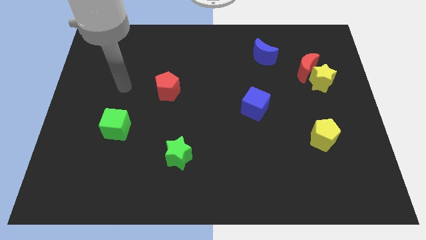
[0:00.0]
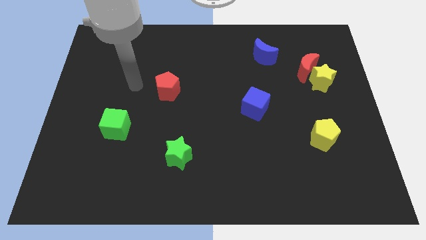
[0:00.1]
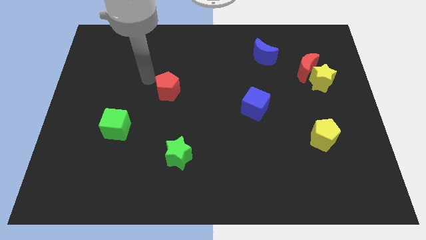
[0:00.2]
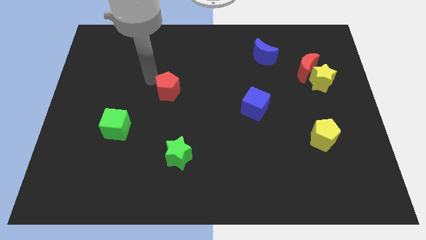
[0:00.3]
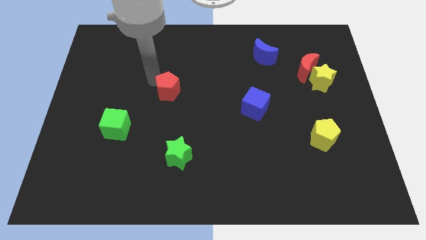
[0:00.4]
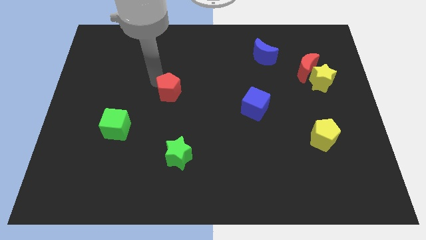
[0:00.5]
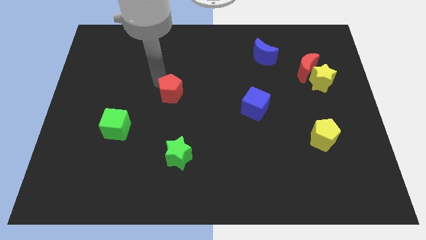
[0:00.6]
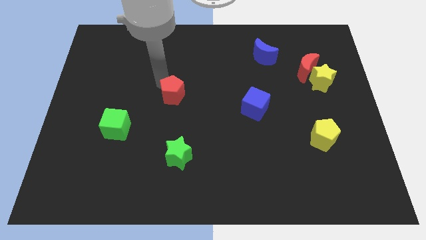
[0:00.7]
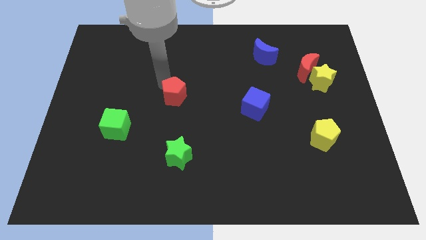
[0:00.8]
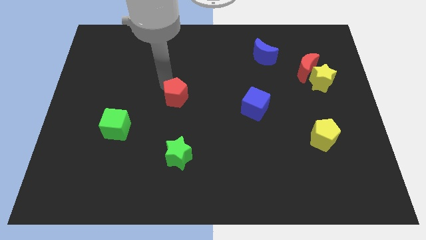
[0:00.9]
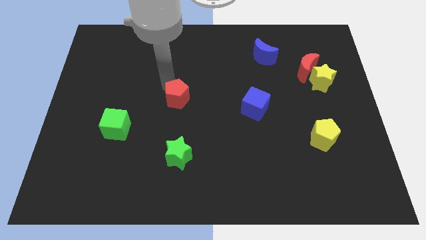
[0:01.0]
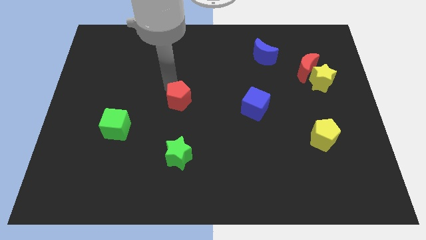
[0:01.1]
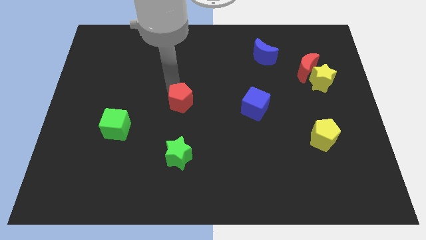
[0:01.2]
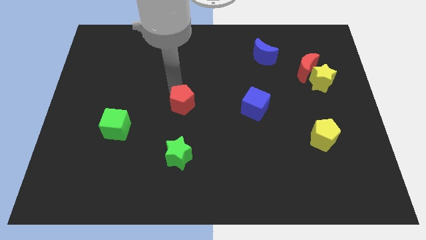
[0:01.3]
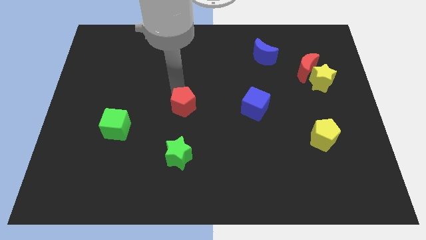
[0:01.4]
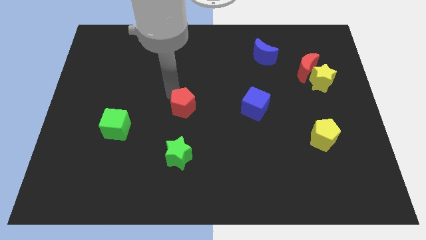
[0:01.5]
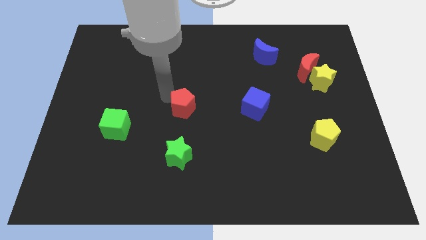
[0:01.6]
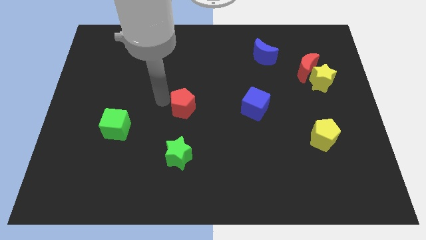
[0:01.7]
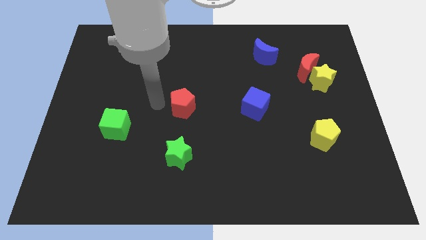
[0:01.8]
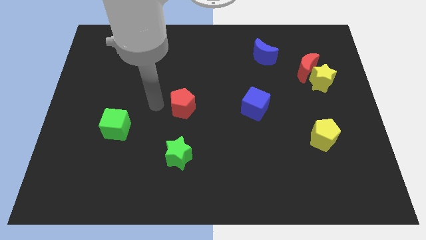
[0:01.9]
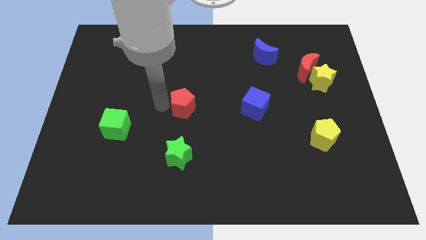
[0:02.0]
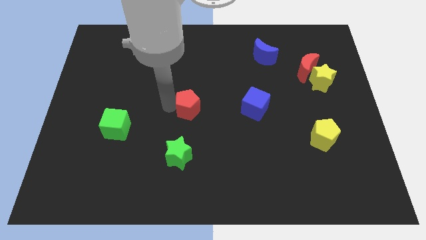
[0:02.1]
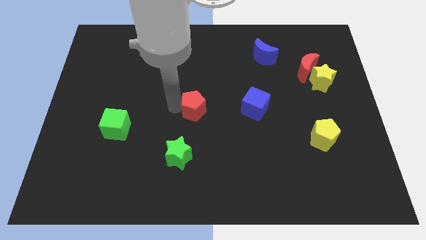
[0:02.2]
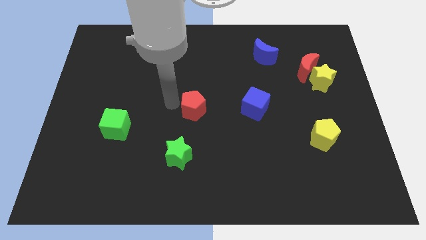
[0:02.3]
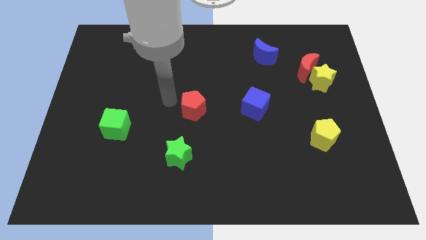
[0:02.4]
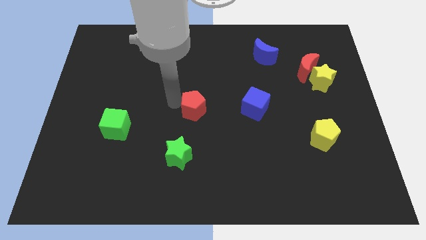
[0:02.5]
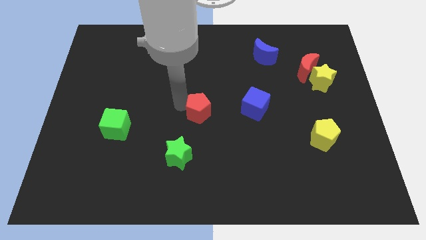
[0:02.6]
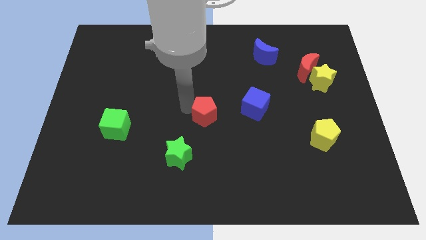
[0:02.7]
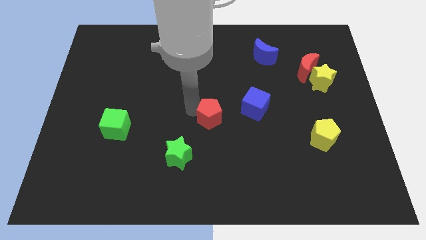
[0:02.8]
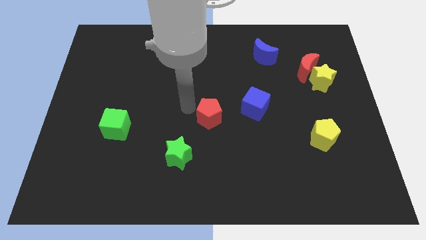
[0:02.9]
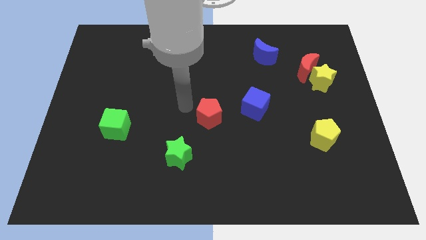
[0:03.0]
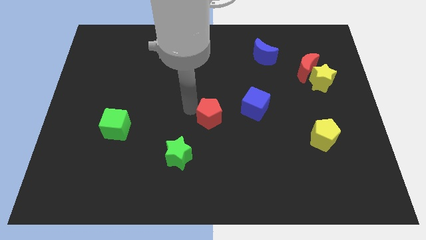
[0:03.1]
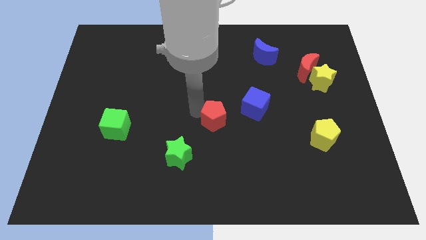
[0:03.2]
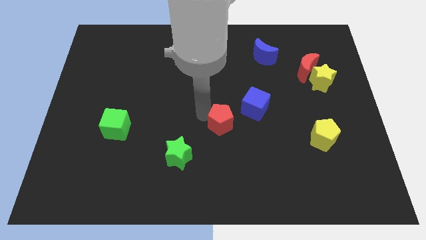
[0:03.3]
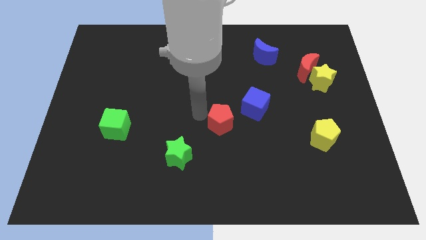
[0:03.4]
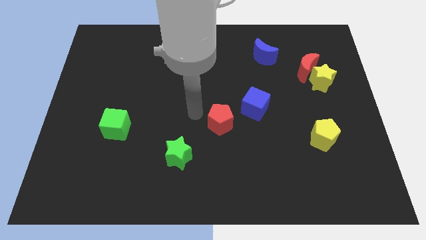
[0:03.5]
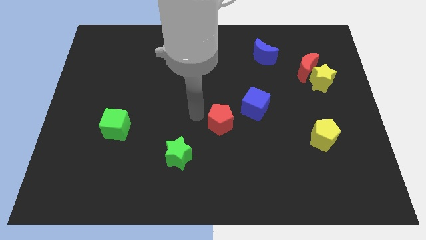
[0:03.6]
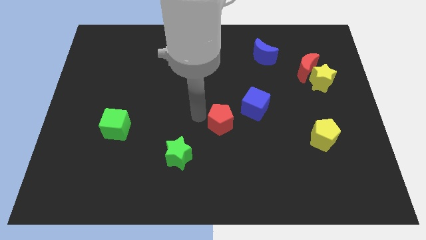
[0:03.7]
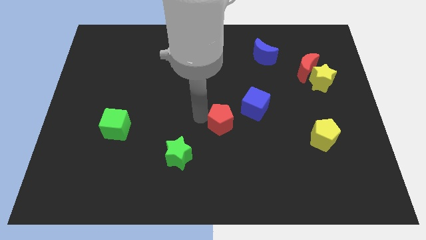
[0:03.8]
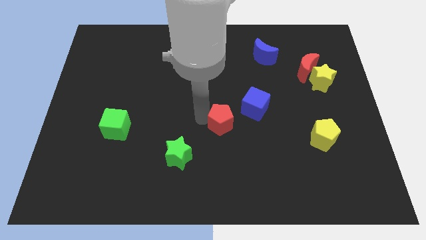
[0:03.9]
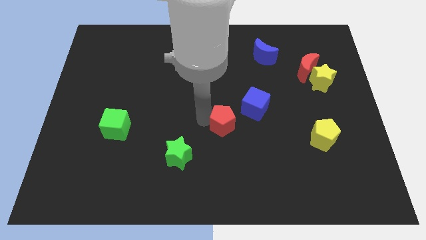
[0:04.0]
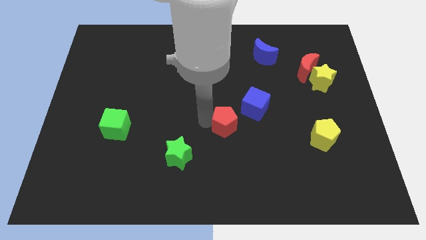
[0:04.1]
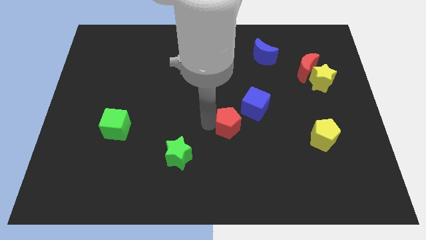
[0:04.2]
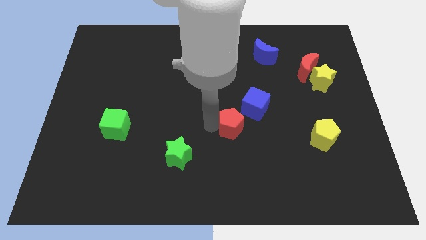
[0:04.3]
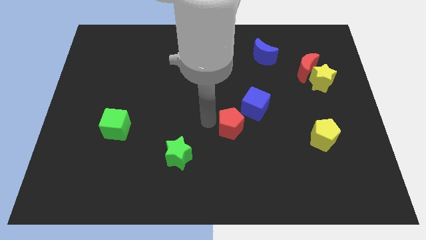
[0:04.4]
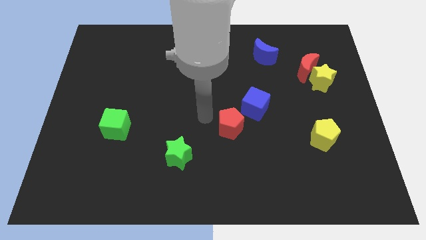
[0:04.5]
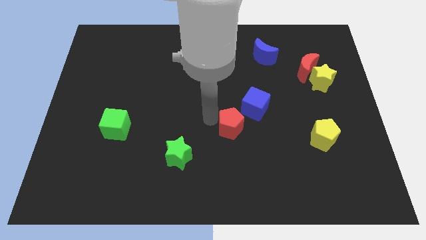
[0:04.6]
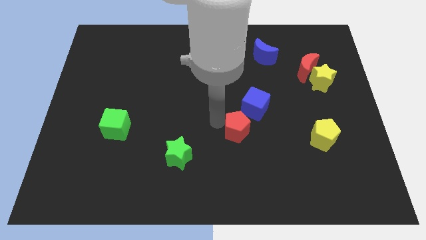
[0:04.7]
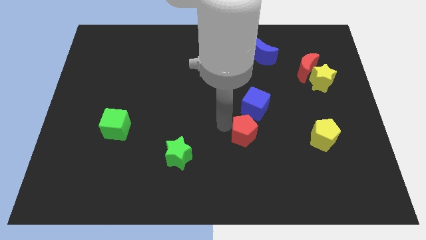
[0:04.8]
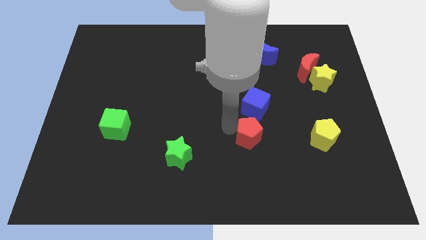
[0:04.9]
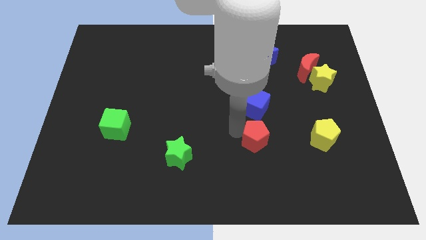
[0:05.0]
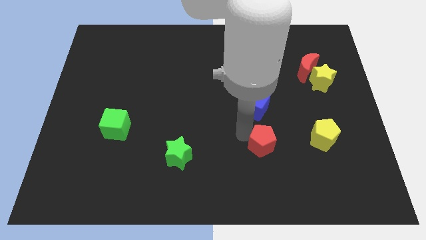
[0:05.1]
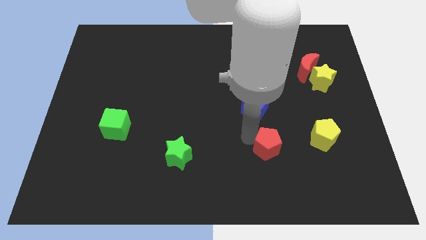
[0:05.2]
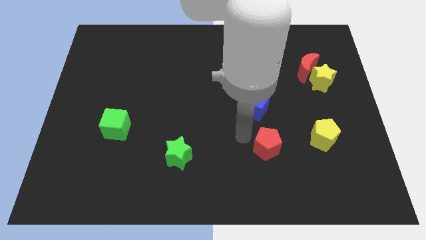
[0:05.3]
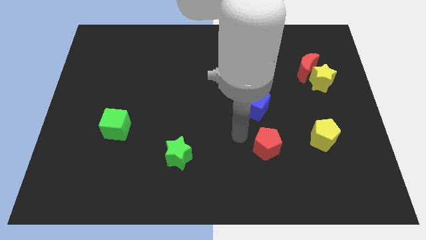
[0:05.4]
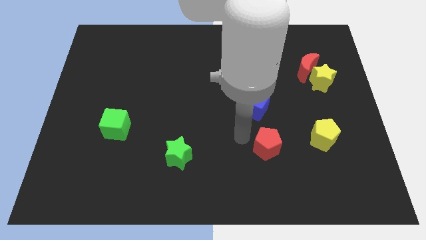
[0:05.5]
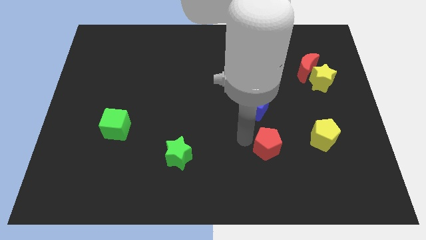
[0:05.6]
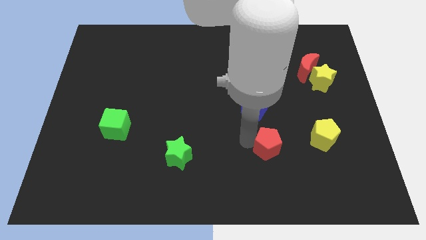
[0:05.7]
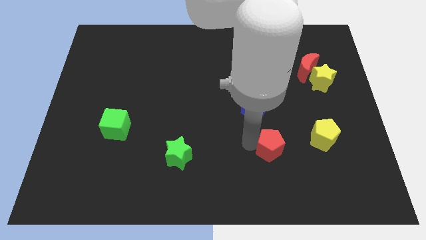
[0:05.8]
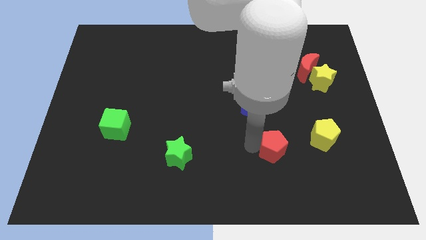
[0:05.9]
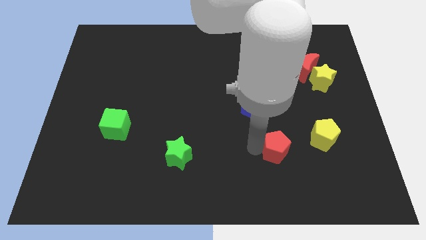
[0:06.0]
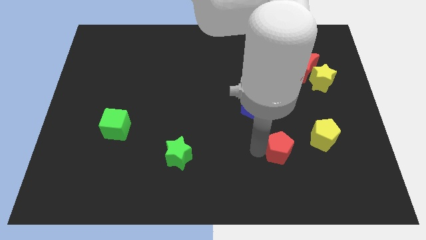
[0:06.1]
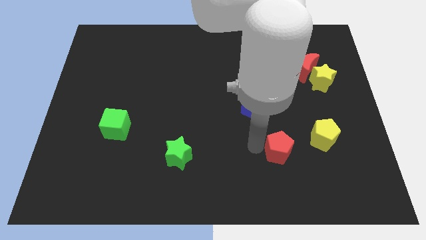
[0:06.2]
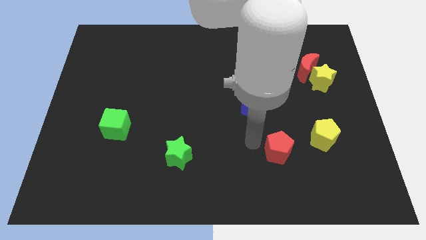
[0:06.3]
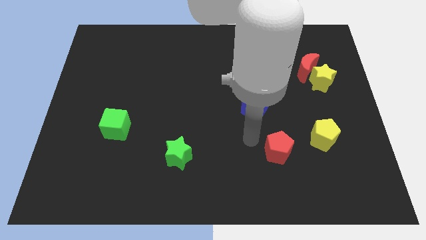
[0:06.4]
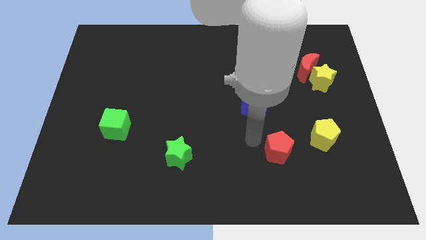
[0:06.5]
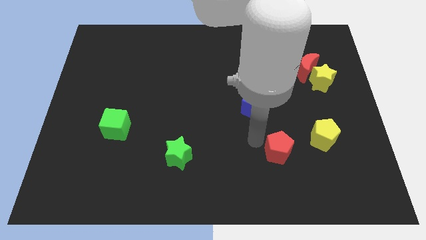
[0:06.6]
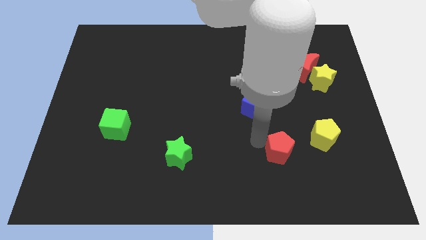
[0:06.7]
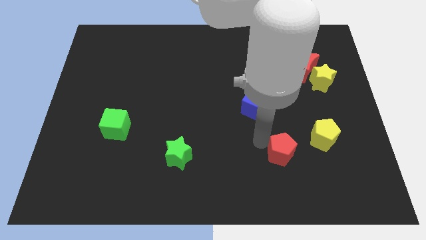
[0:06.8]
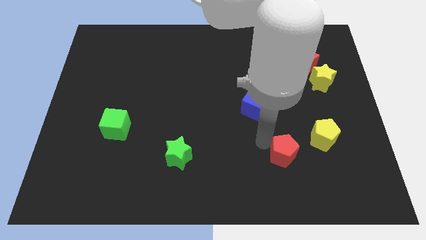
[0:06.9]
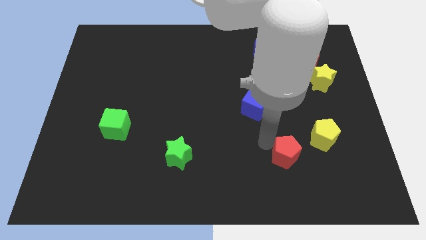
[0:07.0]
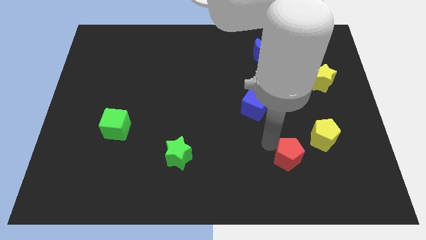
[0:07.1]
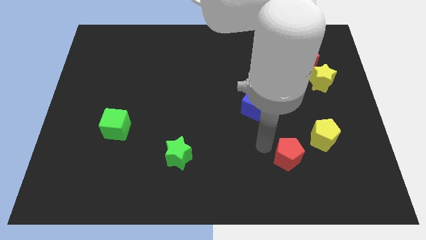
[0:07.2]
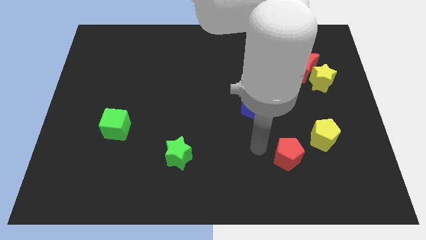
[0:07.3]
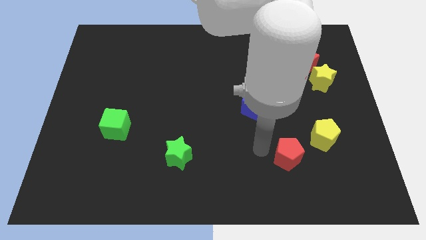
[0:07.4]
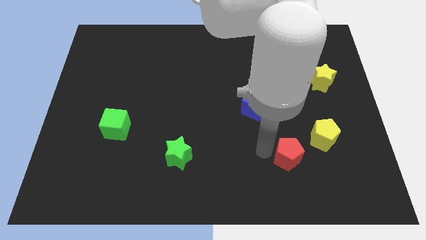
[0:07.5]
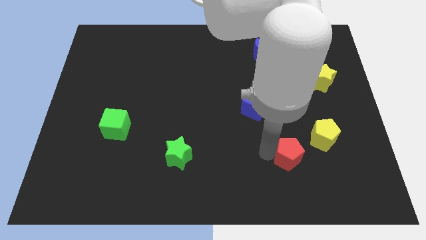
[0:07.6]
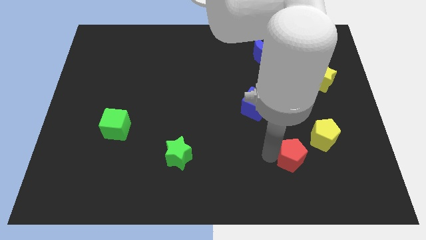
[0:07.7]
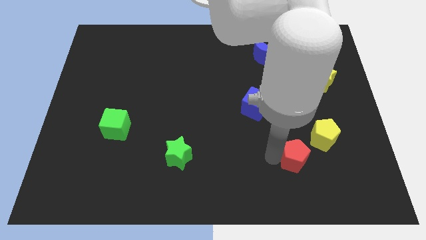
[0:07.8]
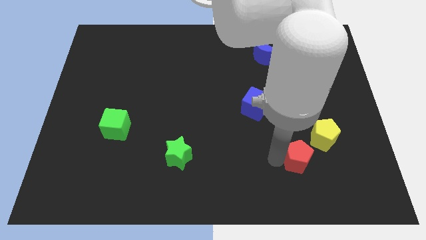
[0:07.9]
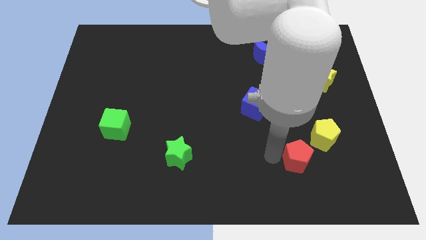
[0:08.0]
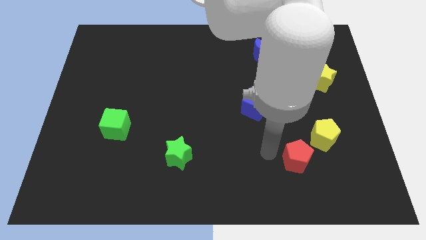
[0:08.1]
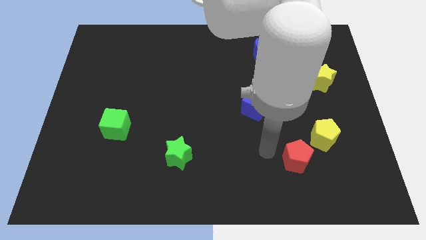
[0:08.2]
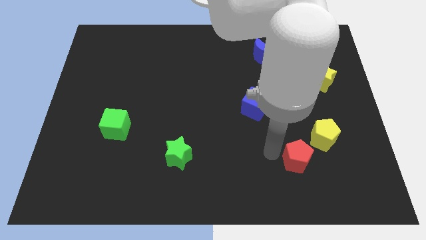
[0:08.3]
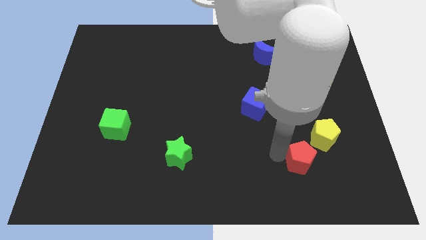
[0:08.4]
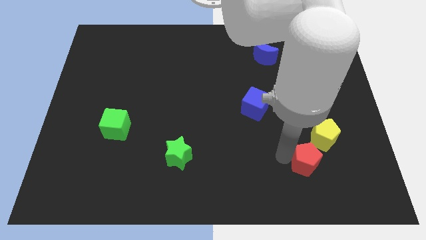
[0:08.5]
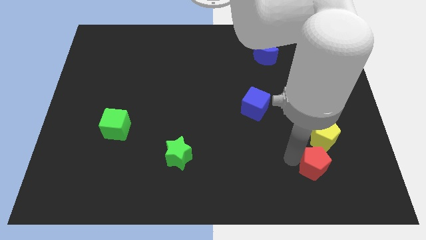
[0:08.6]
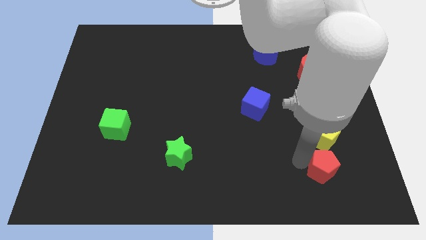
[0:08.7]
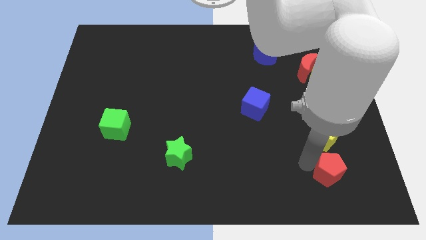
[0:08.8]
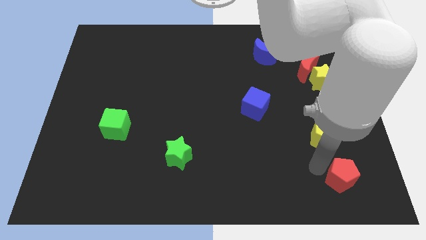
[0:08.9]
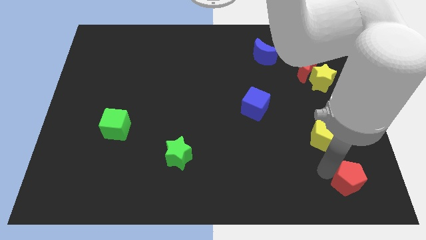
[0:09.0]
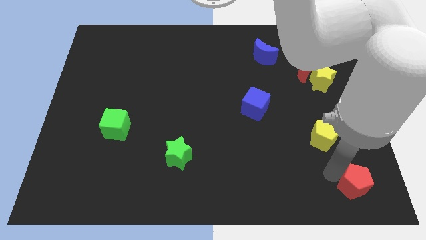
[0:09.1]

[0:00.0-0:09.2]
put the red pentagon to the bottom right corner
